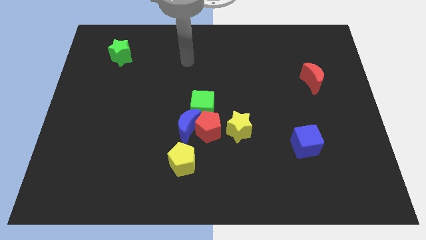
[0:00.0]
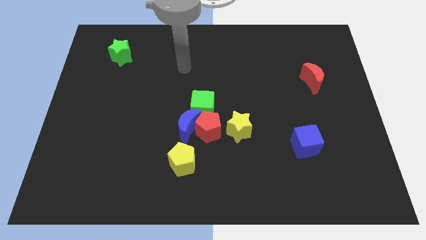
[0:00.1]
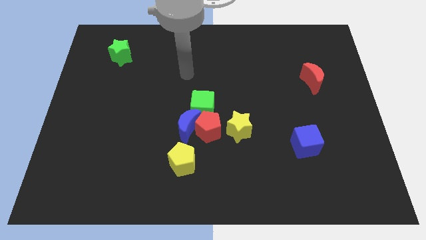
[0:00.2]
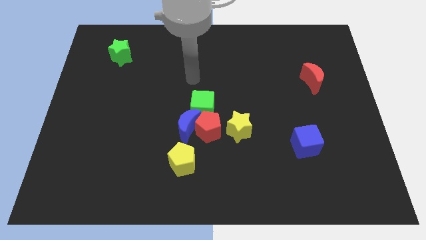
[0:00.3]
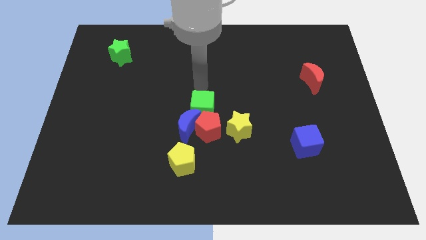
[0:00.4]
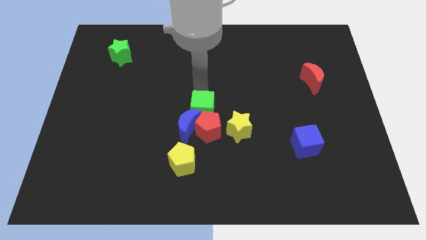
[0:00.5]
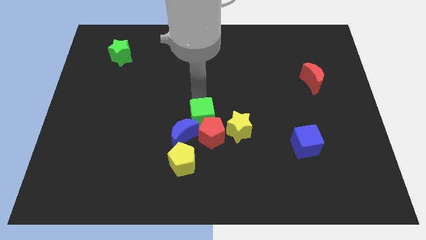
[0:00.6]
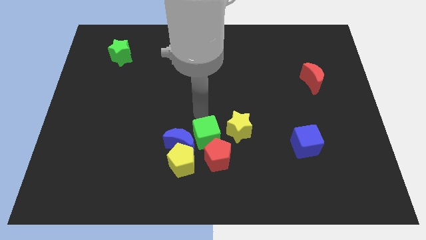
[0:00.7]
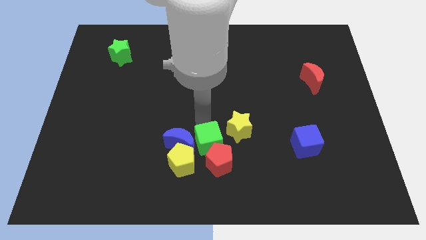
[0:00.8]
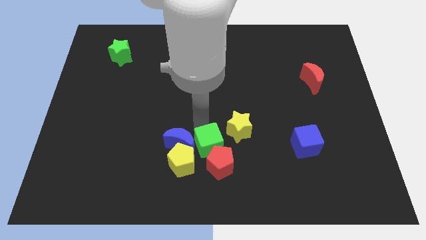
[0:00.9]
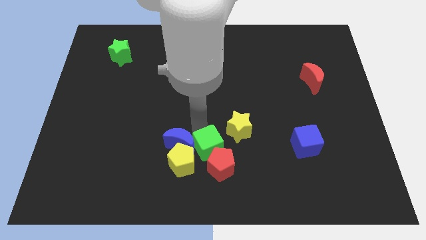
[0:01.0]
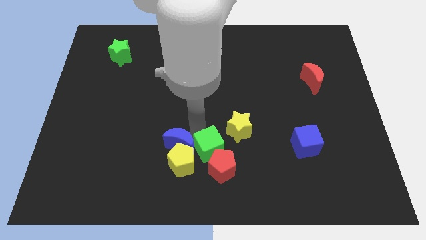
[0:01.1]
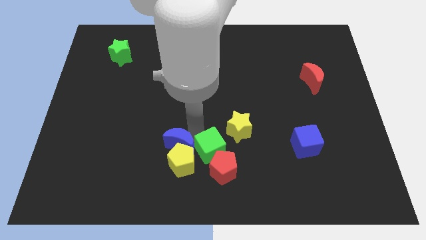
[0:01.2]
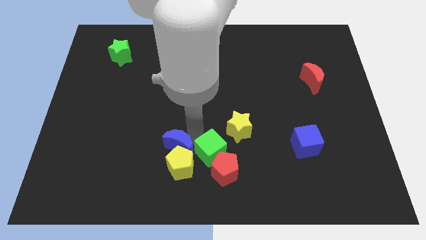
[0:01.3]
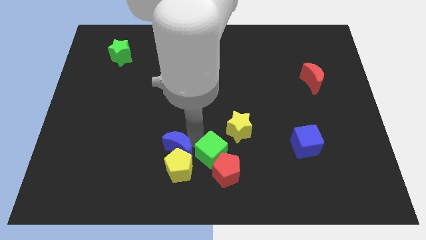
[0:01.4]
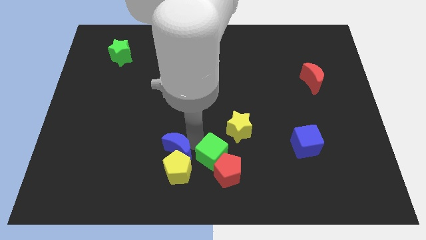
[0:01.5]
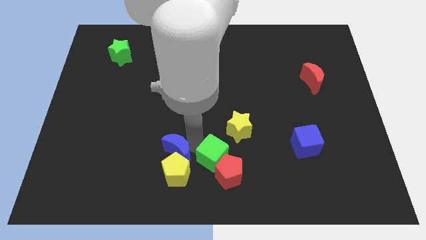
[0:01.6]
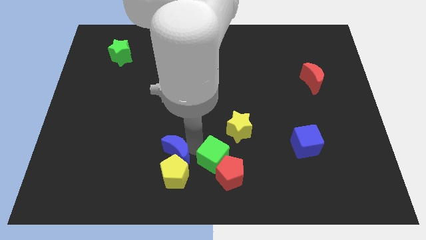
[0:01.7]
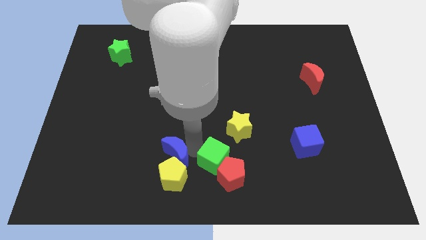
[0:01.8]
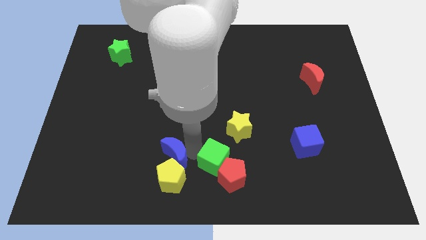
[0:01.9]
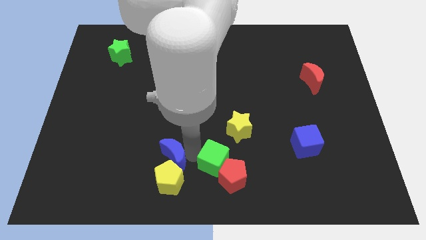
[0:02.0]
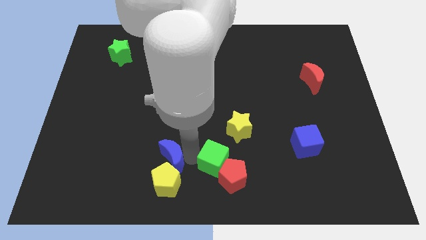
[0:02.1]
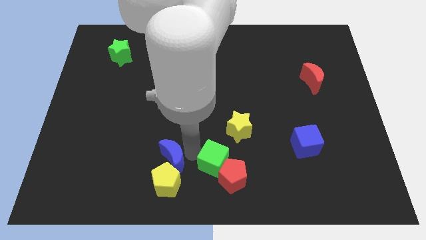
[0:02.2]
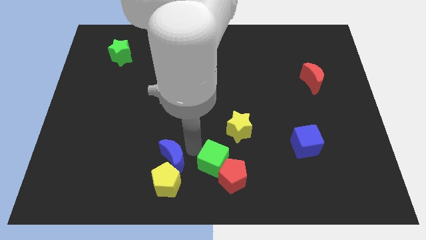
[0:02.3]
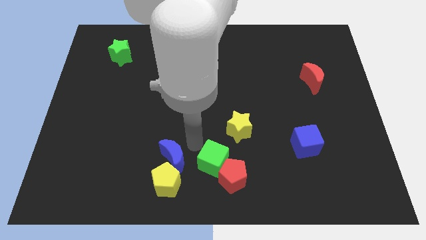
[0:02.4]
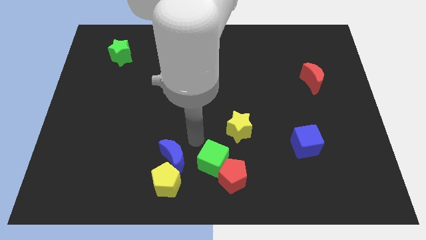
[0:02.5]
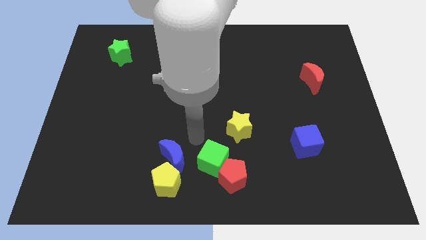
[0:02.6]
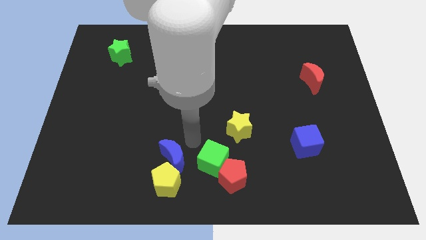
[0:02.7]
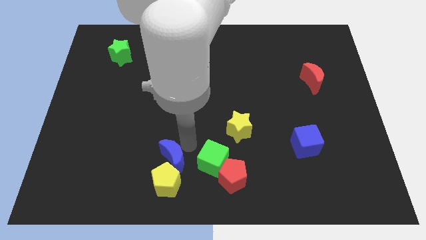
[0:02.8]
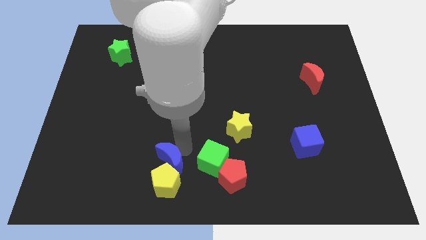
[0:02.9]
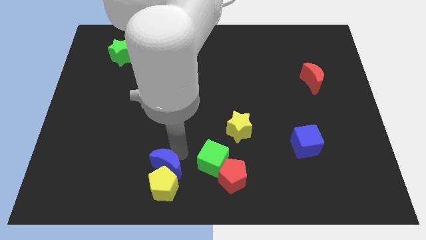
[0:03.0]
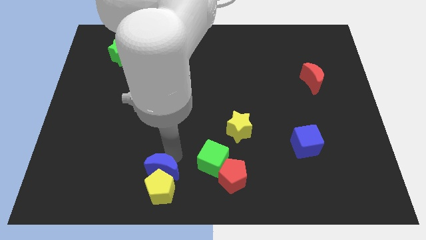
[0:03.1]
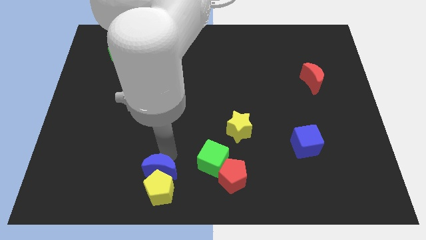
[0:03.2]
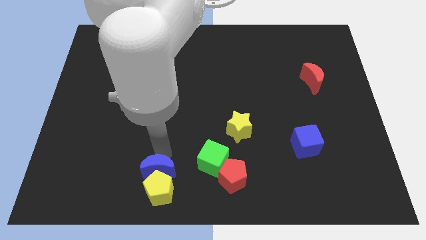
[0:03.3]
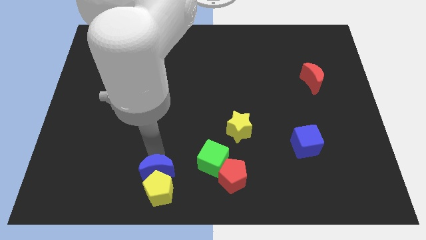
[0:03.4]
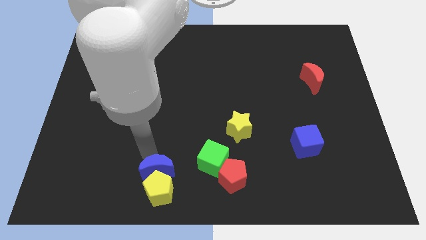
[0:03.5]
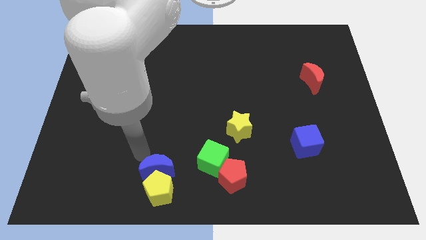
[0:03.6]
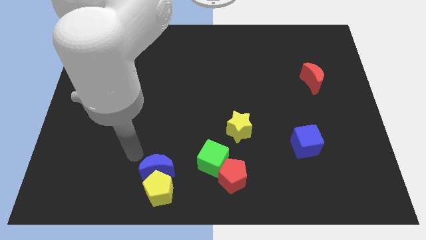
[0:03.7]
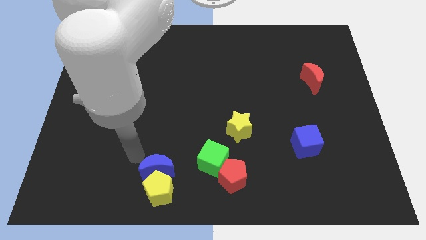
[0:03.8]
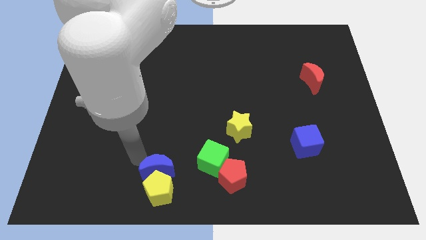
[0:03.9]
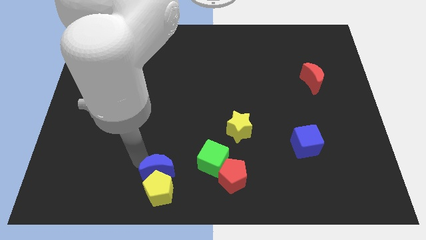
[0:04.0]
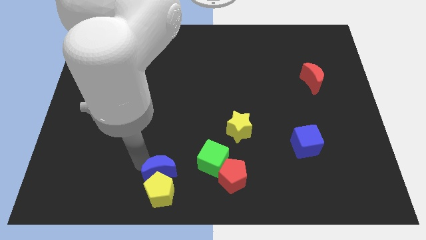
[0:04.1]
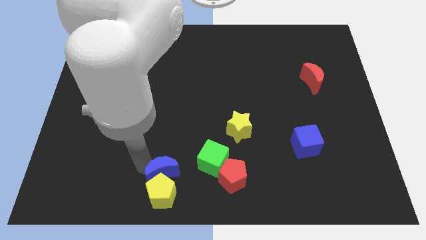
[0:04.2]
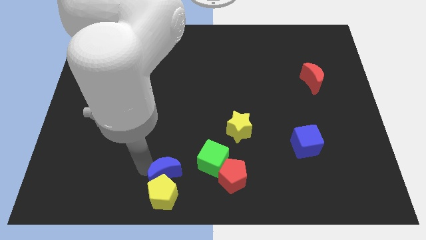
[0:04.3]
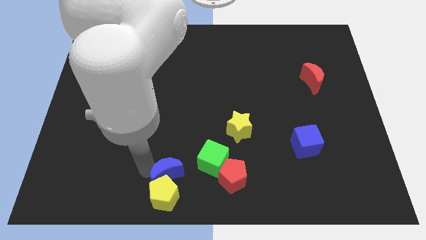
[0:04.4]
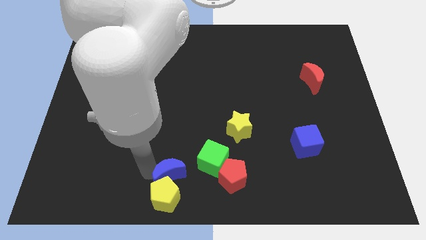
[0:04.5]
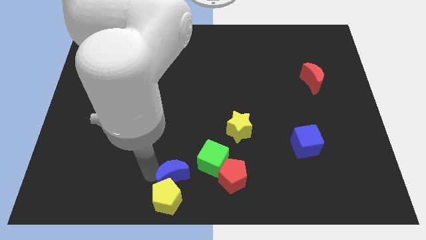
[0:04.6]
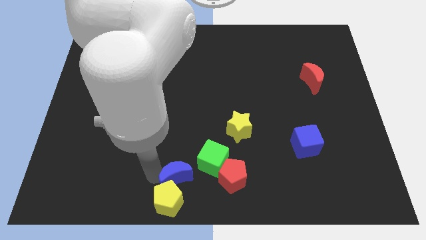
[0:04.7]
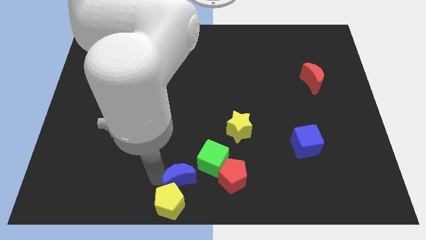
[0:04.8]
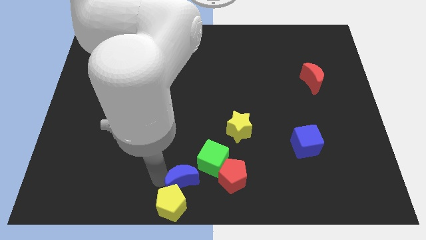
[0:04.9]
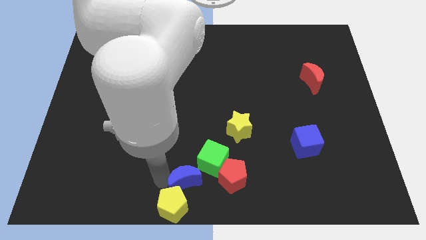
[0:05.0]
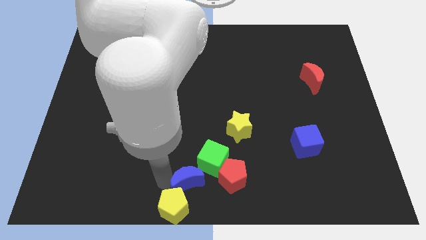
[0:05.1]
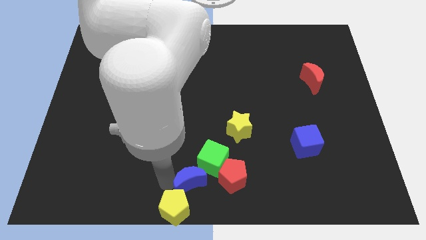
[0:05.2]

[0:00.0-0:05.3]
slightly move the blue moon diagonally downwards and right

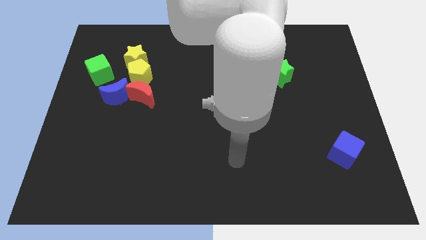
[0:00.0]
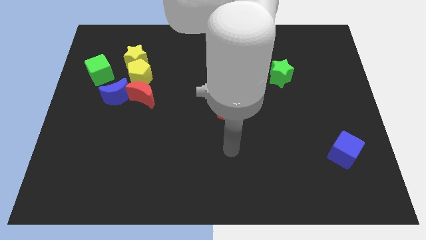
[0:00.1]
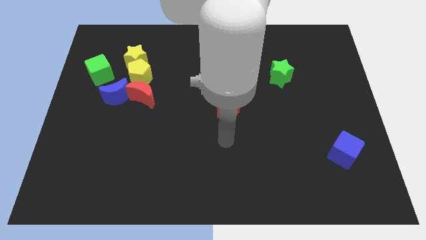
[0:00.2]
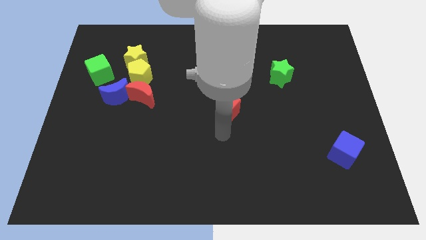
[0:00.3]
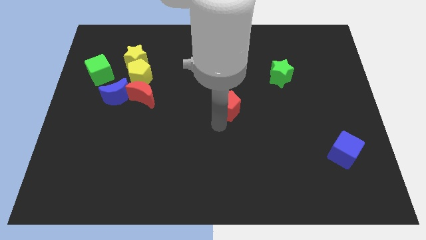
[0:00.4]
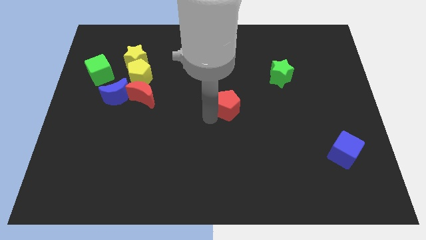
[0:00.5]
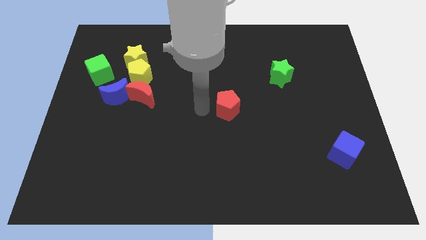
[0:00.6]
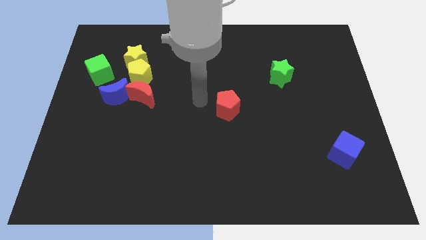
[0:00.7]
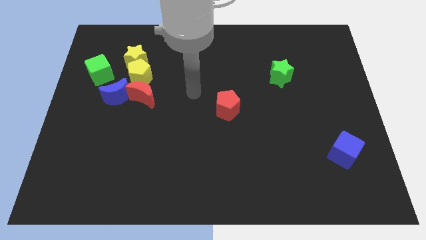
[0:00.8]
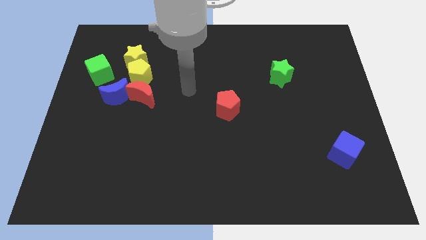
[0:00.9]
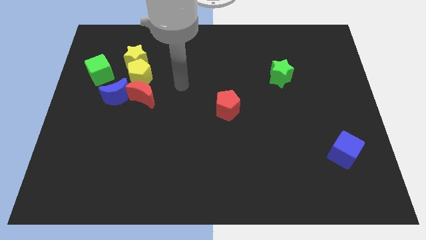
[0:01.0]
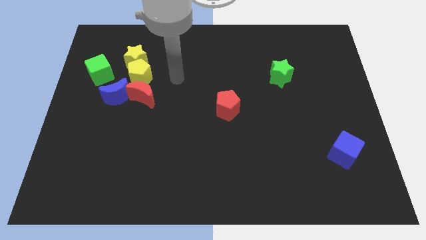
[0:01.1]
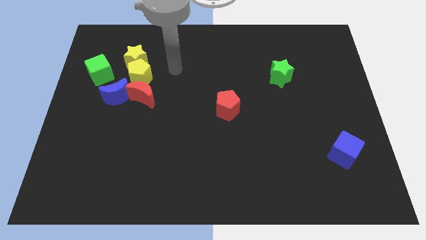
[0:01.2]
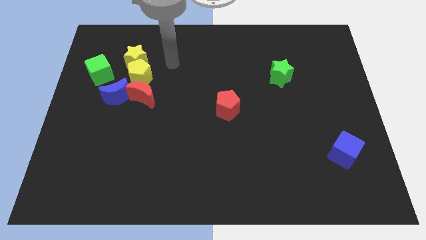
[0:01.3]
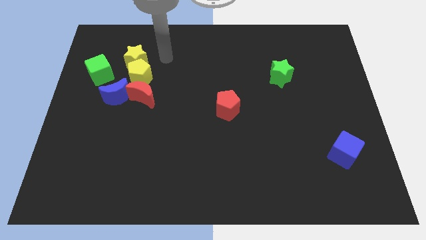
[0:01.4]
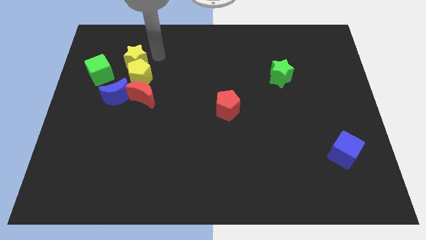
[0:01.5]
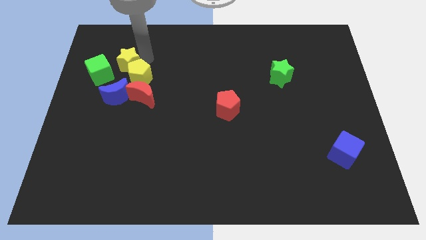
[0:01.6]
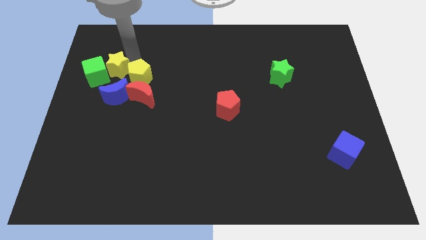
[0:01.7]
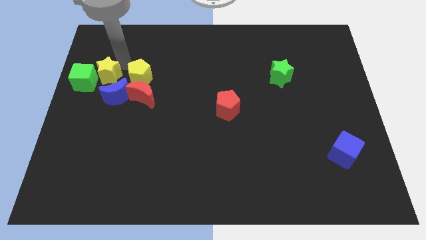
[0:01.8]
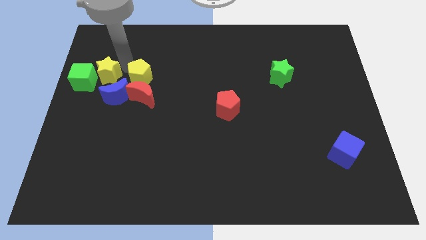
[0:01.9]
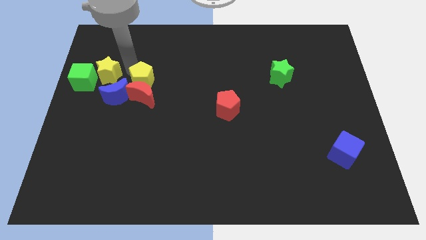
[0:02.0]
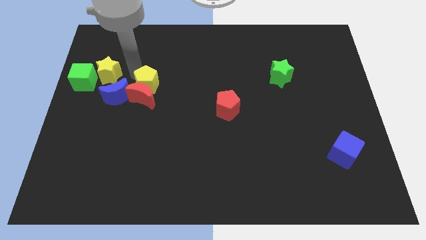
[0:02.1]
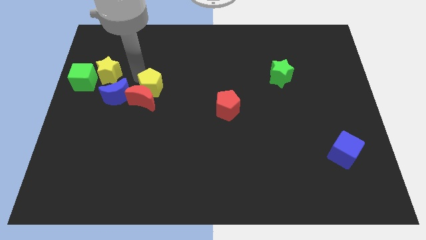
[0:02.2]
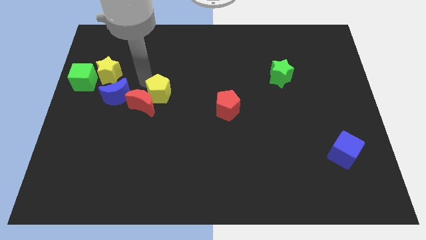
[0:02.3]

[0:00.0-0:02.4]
slide the yellow pentagon downwards and then to the right somewhat

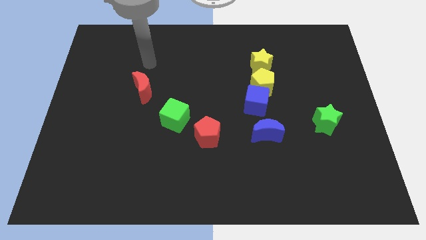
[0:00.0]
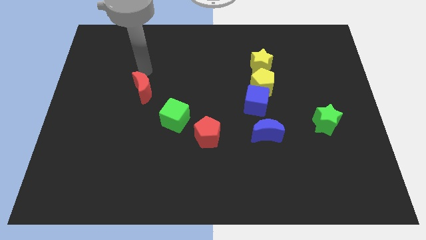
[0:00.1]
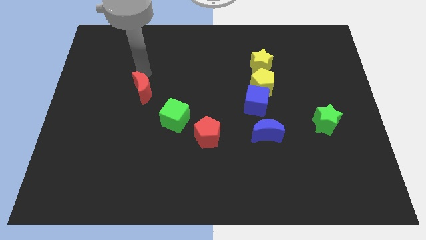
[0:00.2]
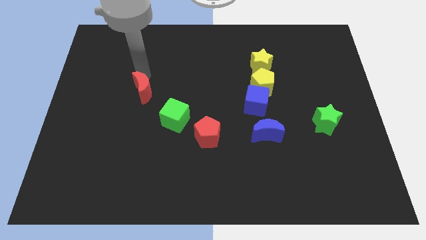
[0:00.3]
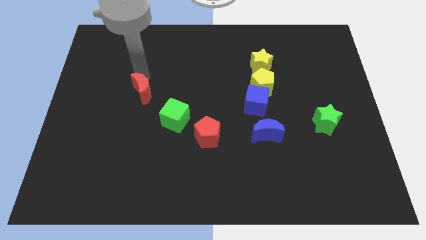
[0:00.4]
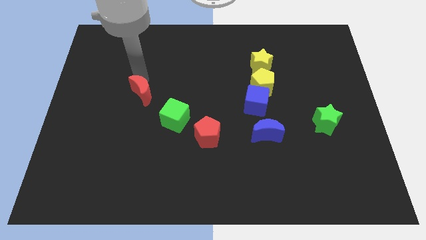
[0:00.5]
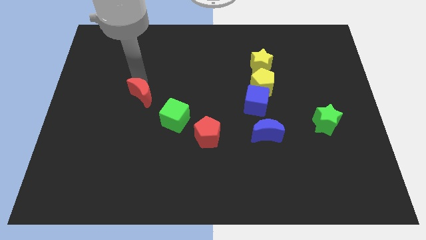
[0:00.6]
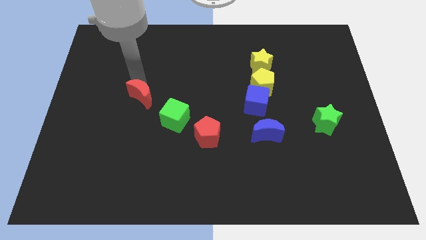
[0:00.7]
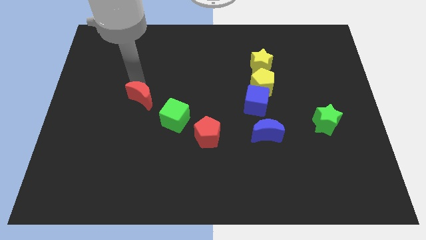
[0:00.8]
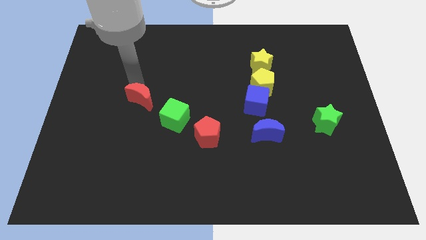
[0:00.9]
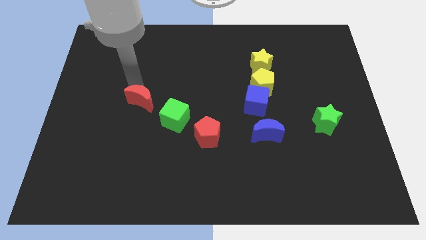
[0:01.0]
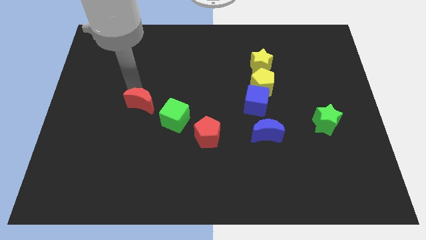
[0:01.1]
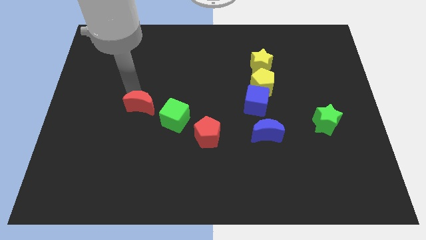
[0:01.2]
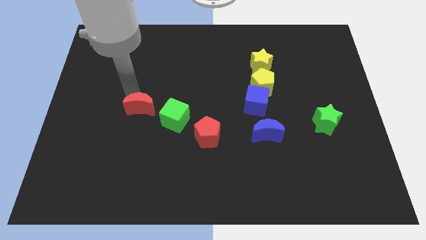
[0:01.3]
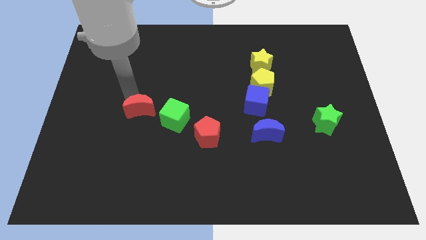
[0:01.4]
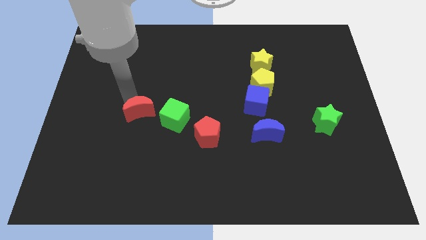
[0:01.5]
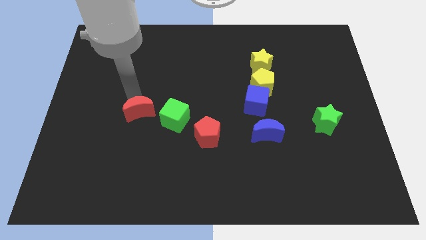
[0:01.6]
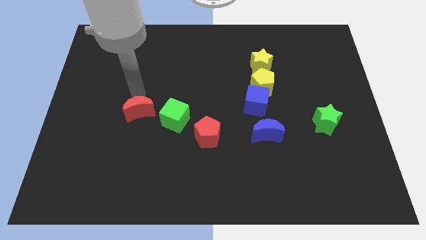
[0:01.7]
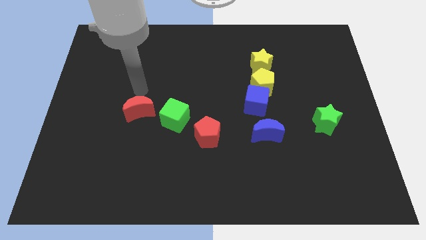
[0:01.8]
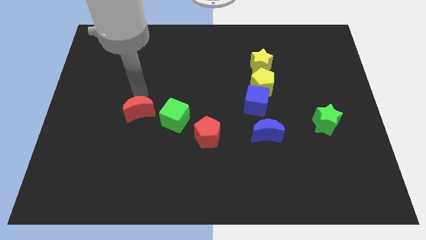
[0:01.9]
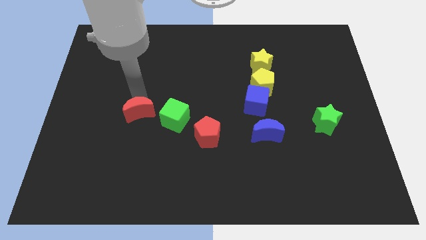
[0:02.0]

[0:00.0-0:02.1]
push the red moon a bit down
